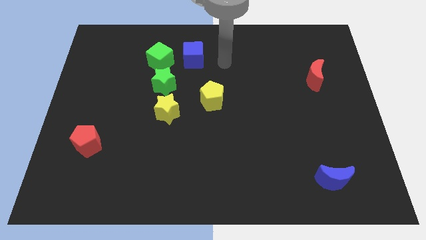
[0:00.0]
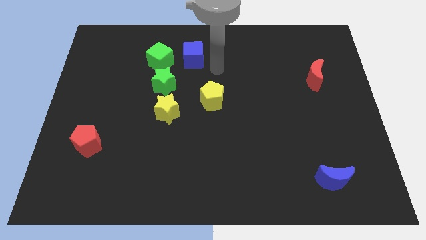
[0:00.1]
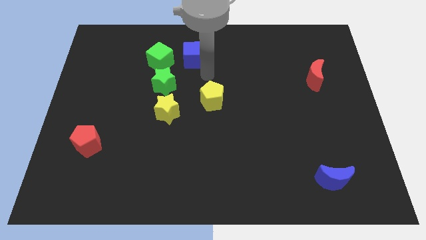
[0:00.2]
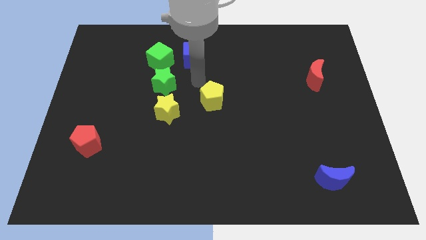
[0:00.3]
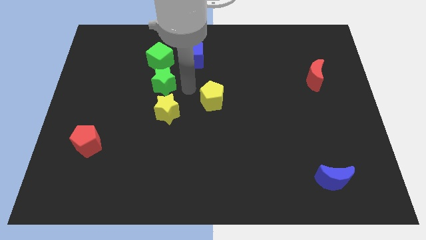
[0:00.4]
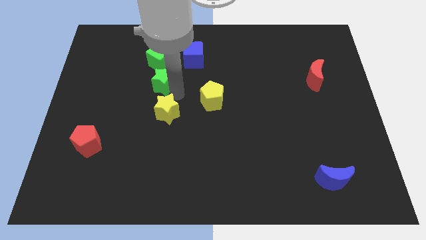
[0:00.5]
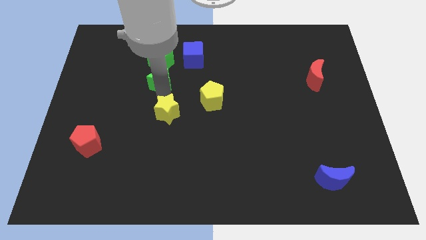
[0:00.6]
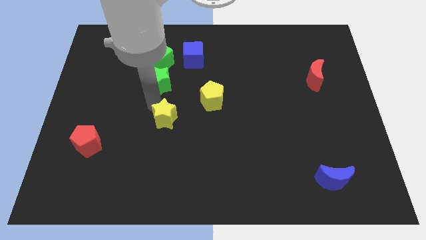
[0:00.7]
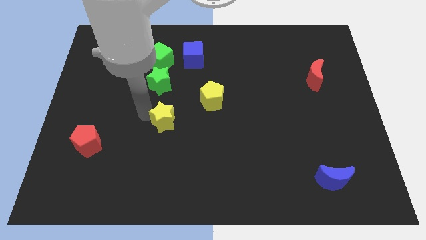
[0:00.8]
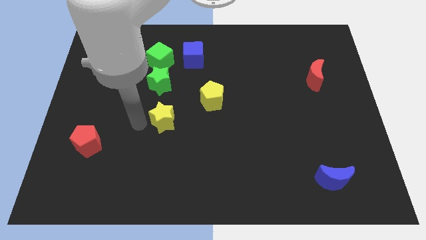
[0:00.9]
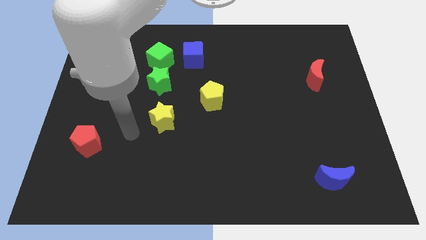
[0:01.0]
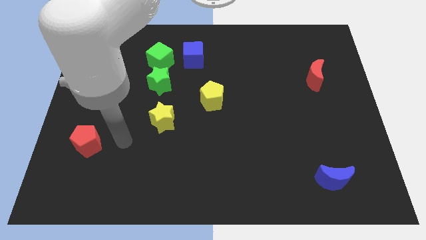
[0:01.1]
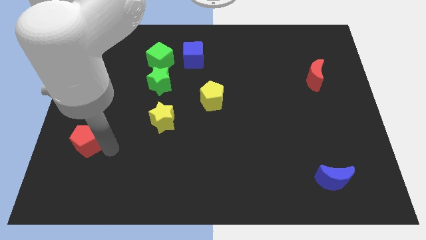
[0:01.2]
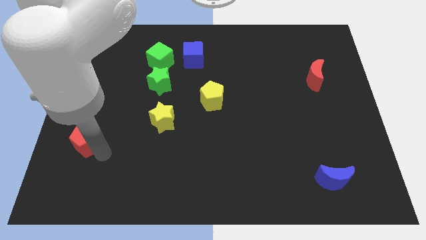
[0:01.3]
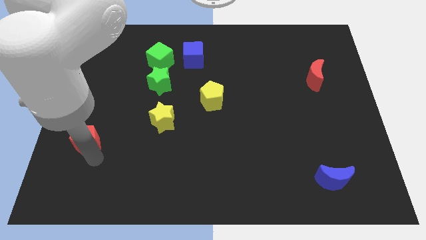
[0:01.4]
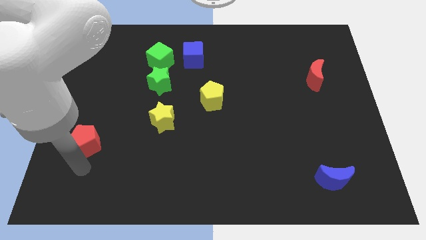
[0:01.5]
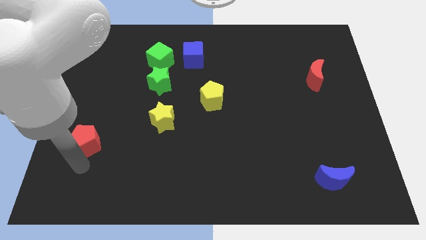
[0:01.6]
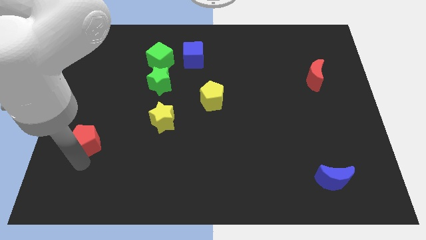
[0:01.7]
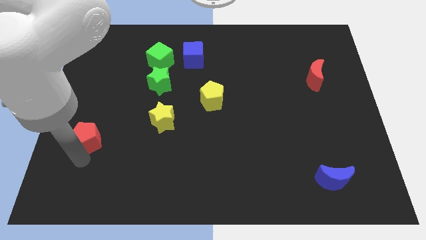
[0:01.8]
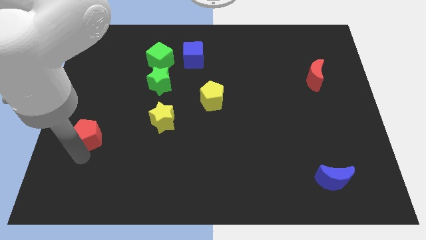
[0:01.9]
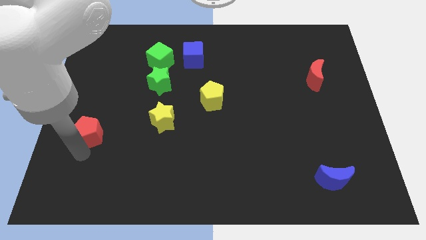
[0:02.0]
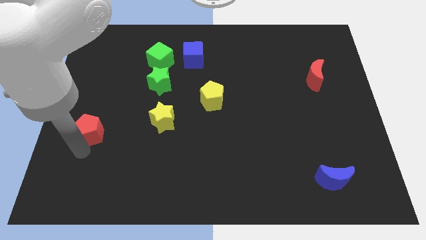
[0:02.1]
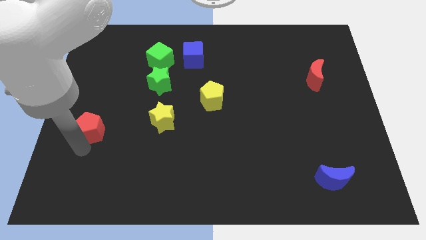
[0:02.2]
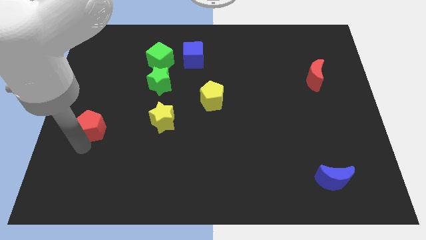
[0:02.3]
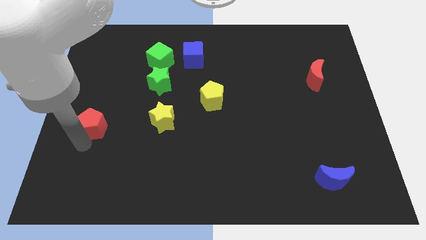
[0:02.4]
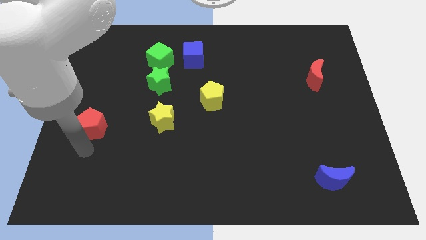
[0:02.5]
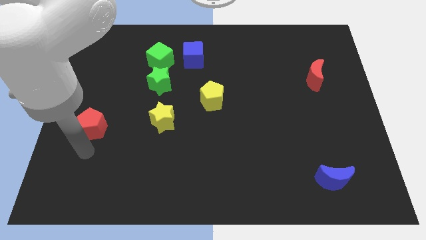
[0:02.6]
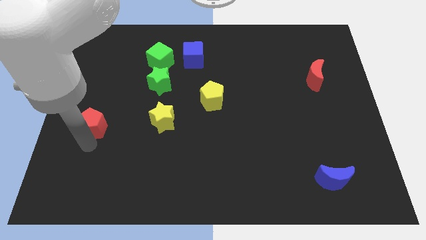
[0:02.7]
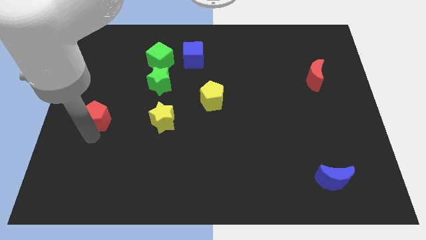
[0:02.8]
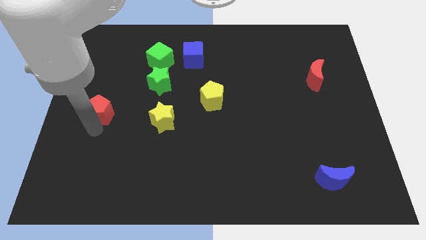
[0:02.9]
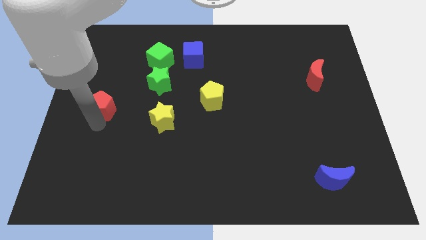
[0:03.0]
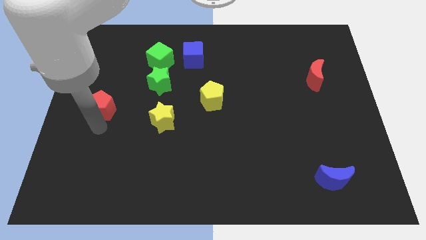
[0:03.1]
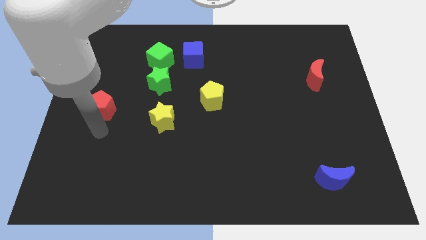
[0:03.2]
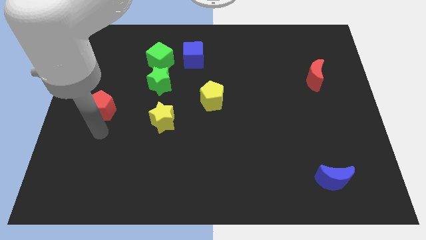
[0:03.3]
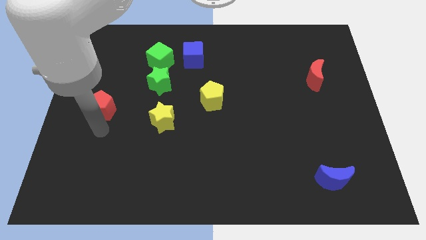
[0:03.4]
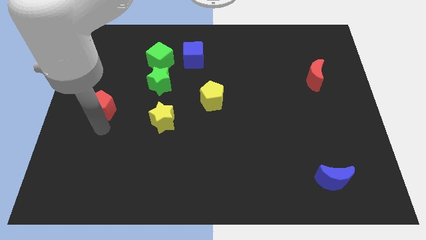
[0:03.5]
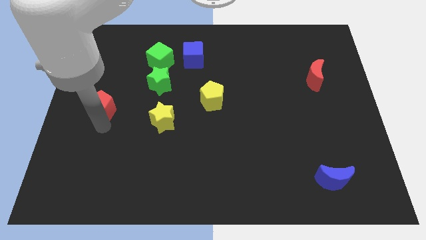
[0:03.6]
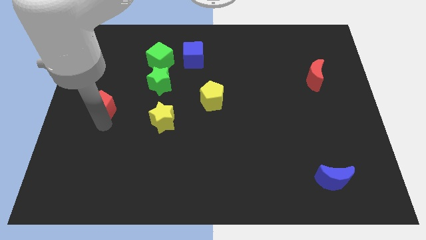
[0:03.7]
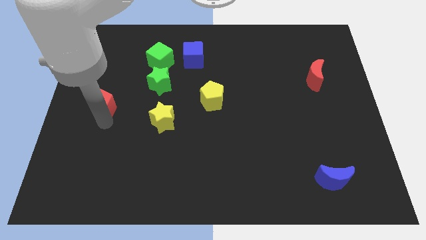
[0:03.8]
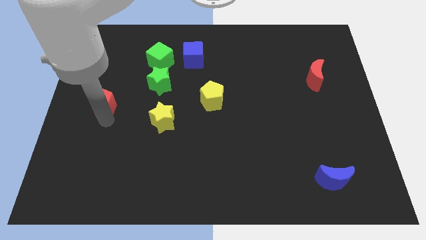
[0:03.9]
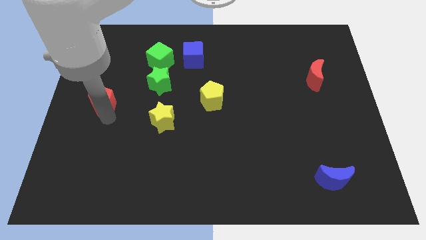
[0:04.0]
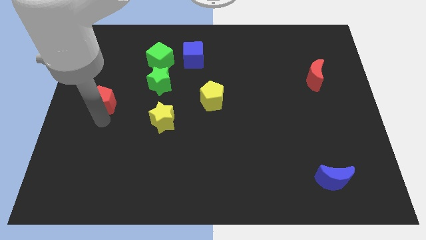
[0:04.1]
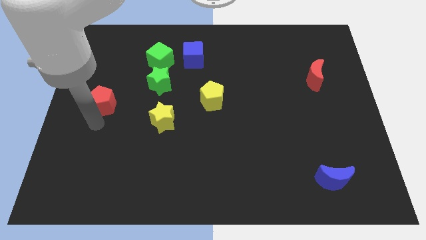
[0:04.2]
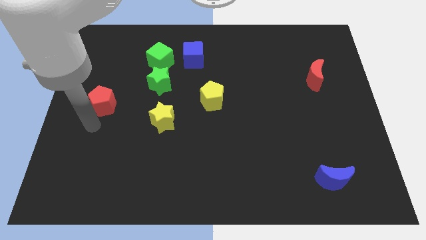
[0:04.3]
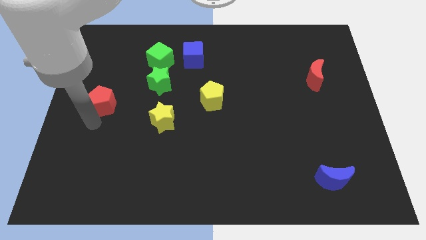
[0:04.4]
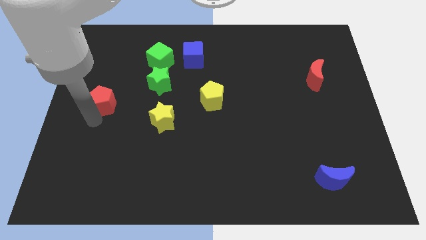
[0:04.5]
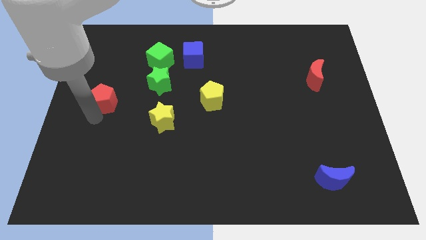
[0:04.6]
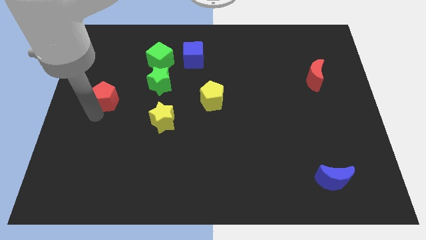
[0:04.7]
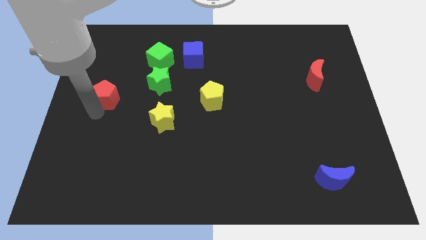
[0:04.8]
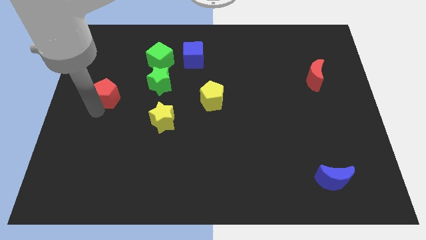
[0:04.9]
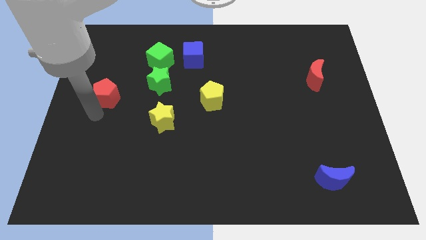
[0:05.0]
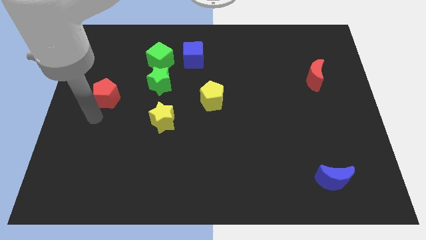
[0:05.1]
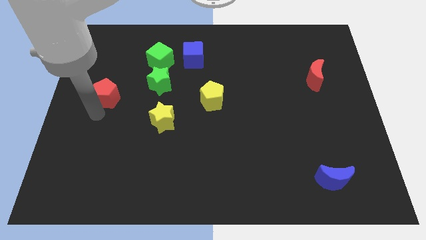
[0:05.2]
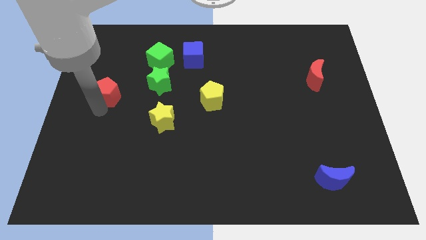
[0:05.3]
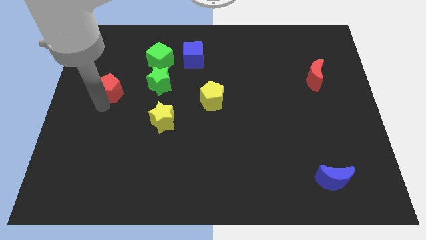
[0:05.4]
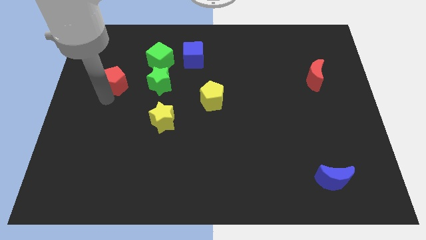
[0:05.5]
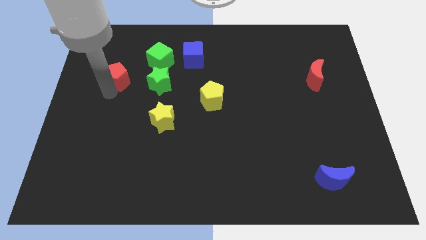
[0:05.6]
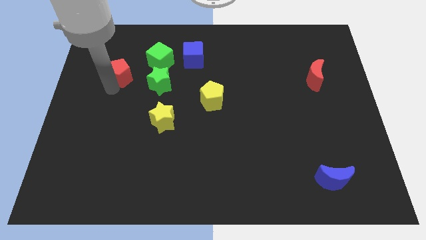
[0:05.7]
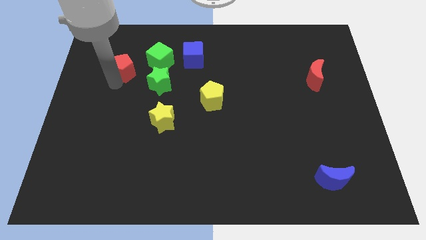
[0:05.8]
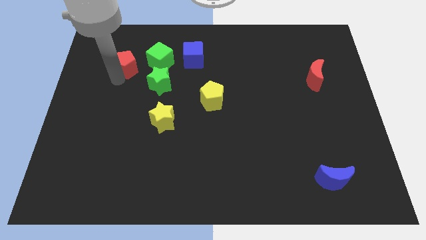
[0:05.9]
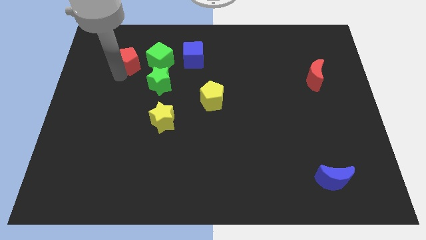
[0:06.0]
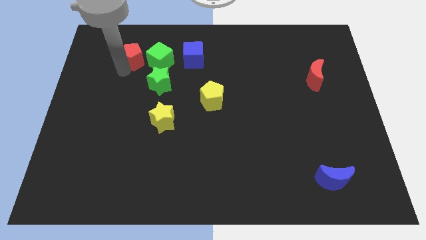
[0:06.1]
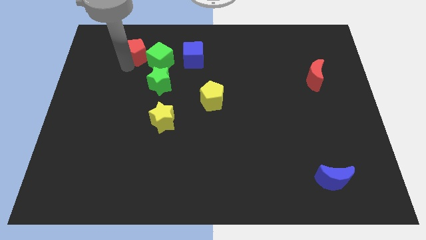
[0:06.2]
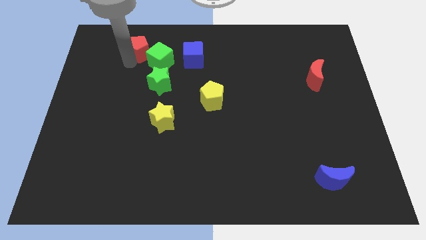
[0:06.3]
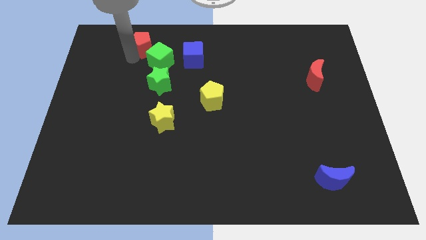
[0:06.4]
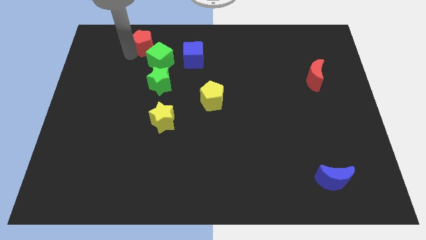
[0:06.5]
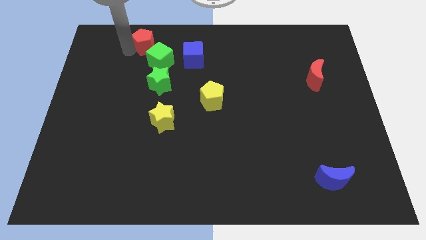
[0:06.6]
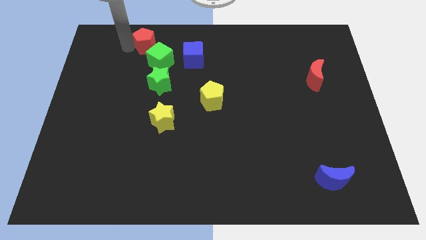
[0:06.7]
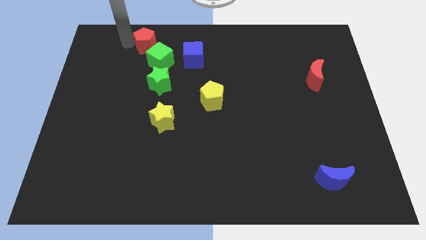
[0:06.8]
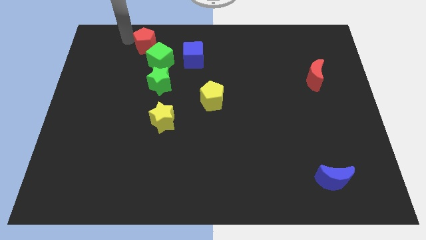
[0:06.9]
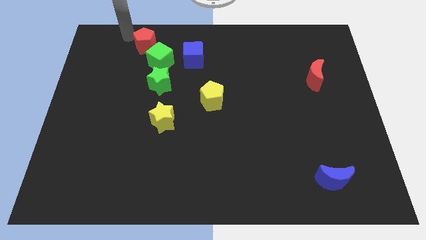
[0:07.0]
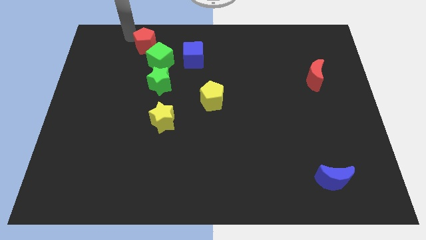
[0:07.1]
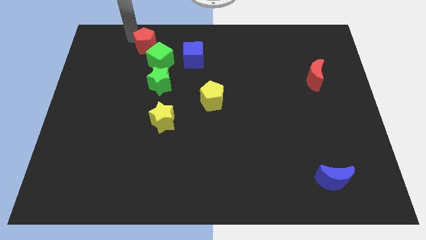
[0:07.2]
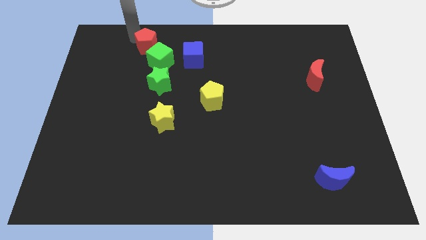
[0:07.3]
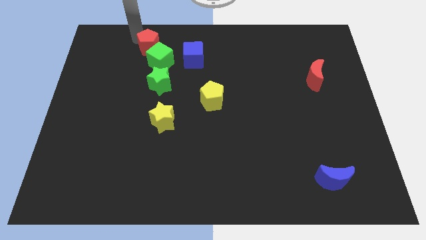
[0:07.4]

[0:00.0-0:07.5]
put the red pentagon above the green star
